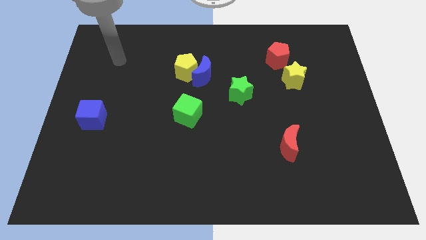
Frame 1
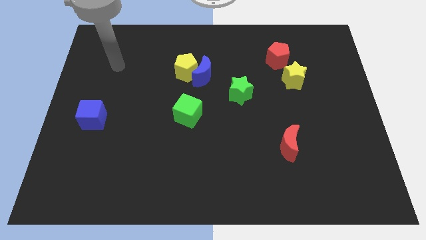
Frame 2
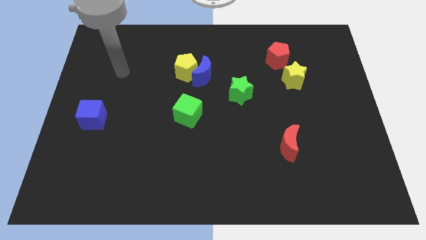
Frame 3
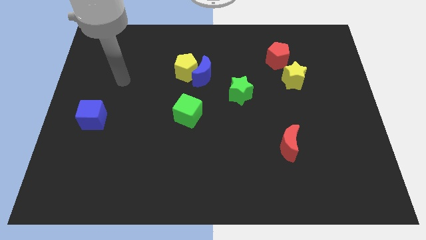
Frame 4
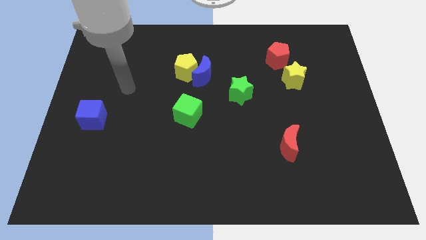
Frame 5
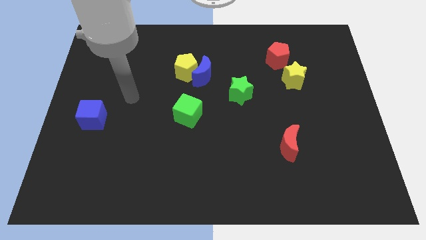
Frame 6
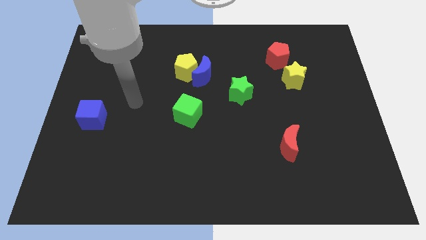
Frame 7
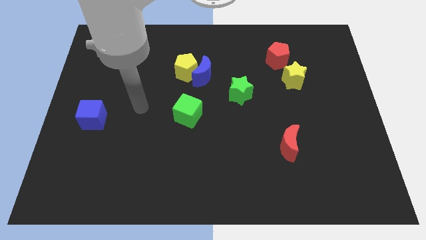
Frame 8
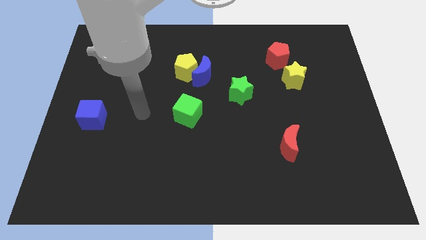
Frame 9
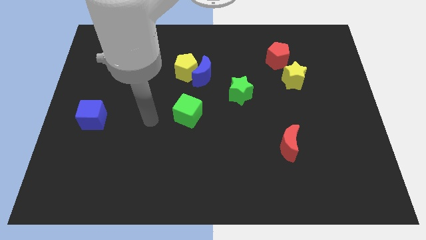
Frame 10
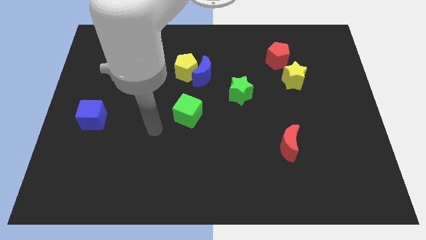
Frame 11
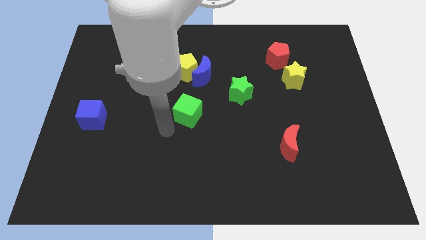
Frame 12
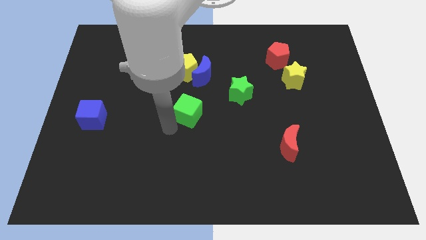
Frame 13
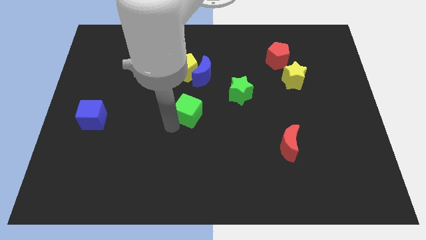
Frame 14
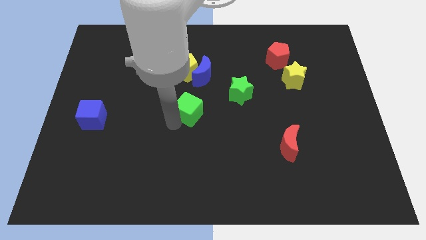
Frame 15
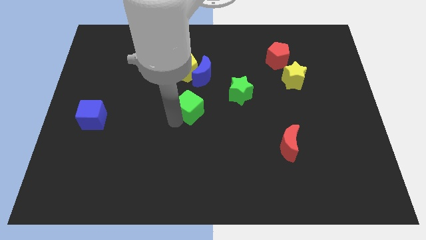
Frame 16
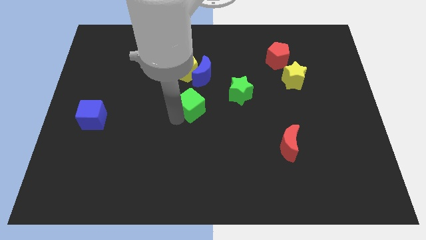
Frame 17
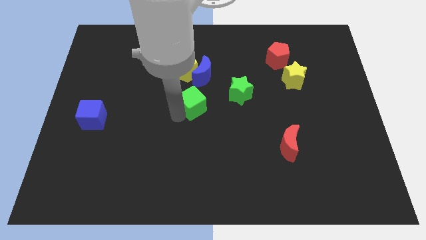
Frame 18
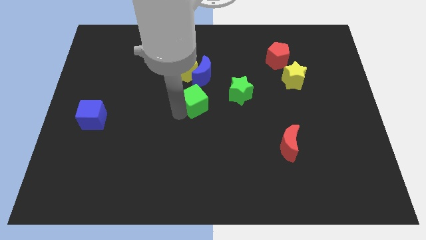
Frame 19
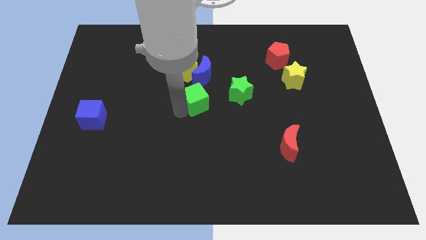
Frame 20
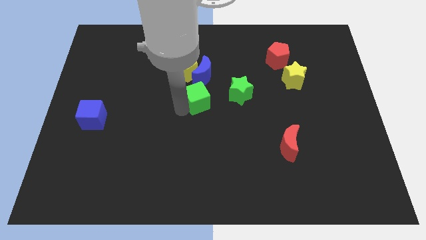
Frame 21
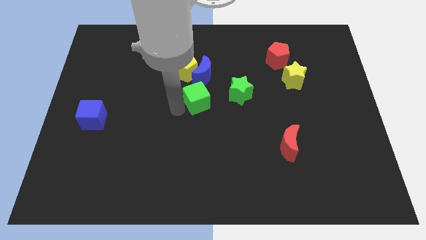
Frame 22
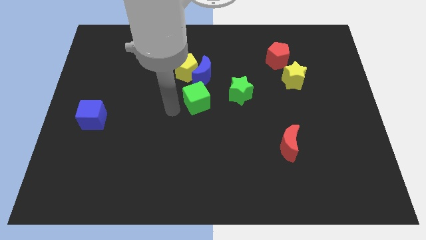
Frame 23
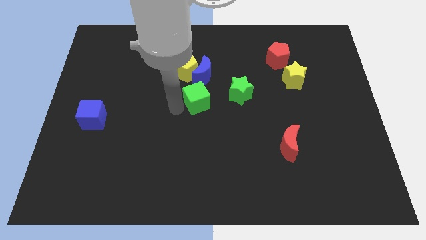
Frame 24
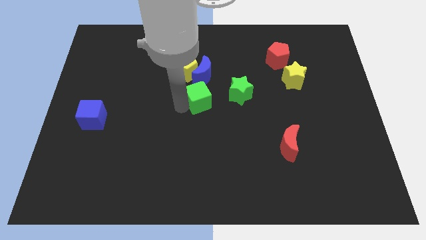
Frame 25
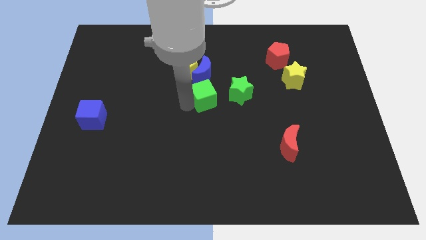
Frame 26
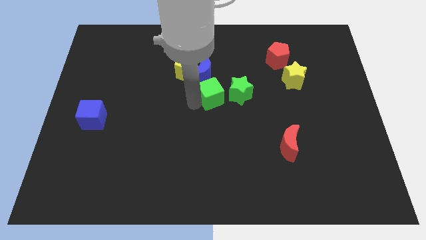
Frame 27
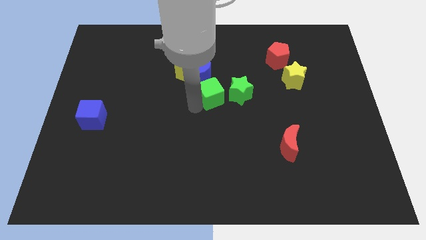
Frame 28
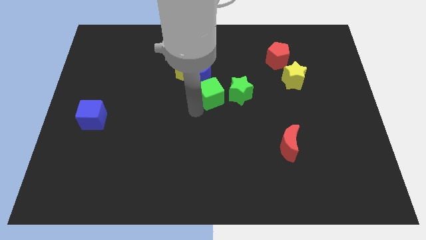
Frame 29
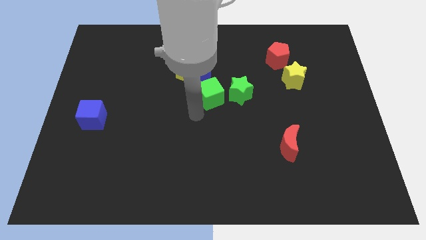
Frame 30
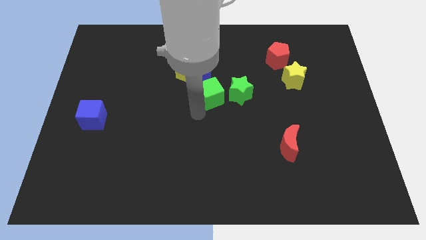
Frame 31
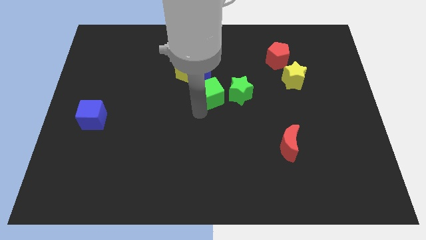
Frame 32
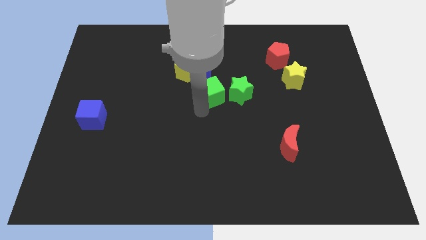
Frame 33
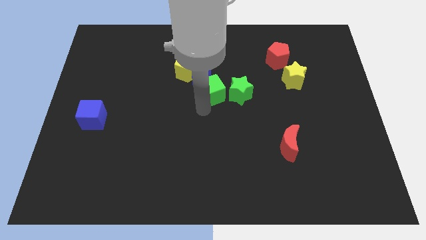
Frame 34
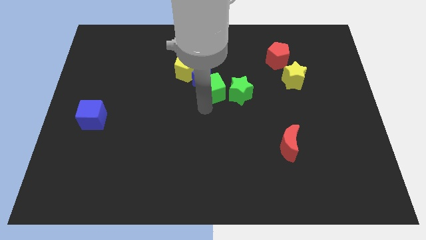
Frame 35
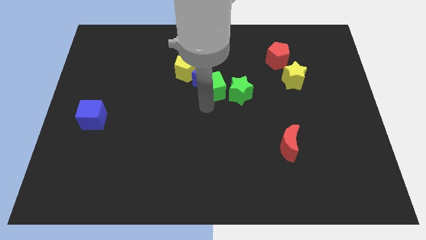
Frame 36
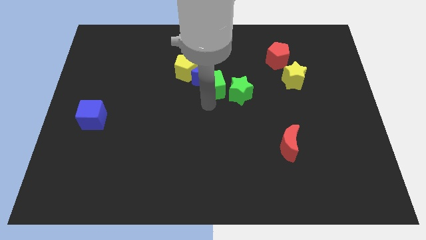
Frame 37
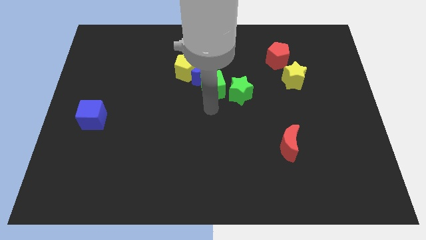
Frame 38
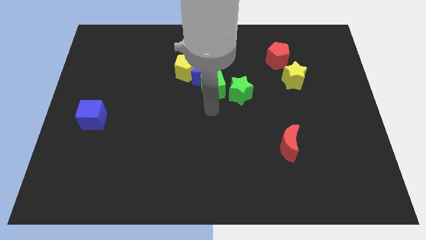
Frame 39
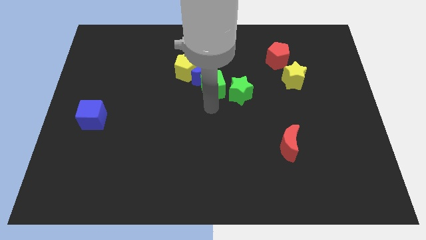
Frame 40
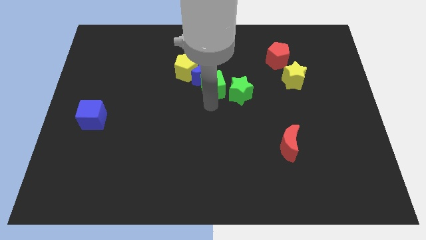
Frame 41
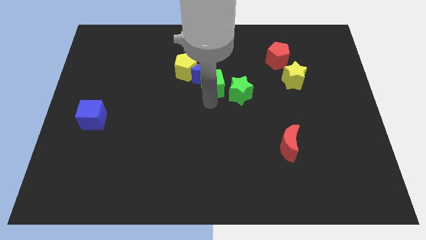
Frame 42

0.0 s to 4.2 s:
slide the green cube up slightly

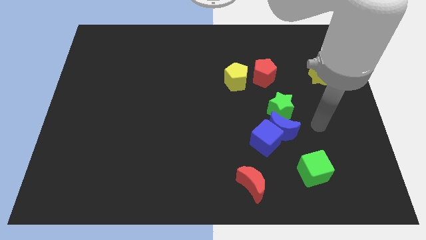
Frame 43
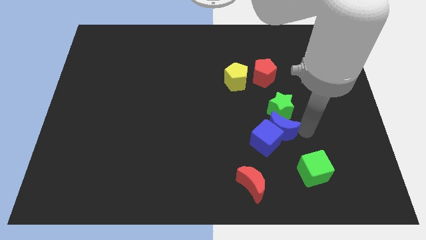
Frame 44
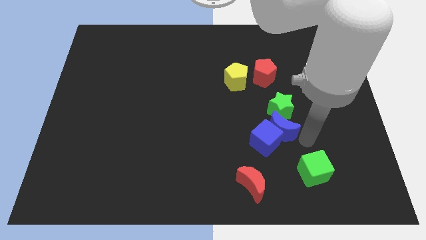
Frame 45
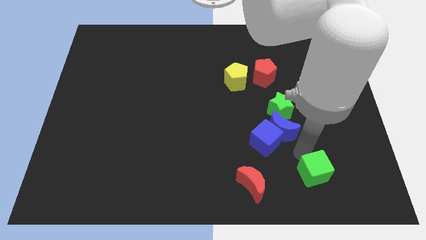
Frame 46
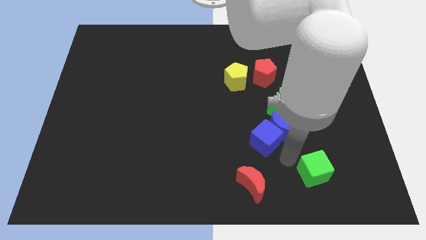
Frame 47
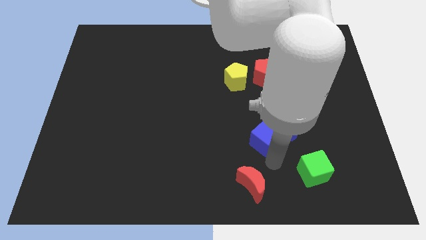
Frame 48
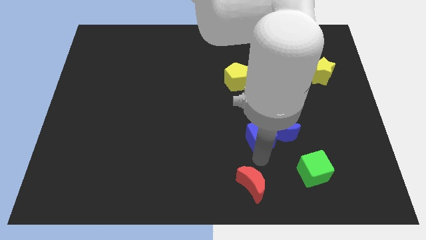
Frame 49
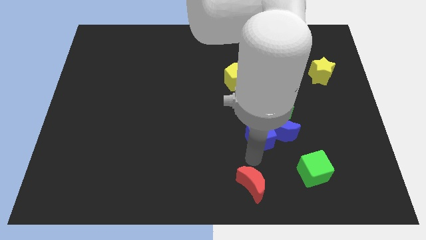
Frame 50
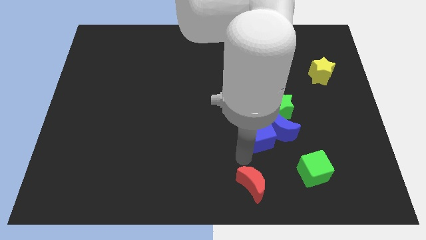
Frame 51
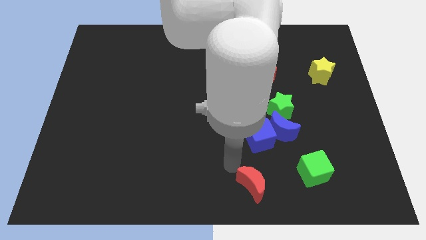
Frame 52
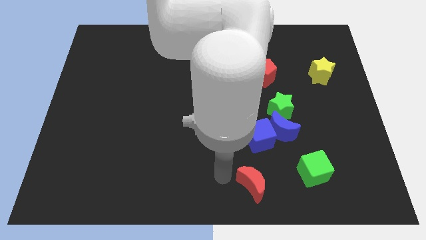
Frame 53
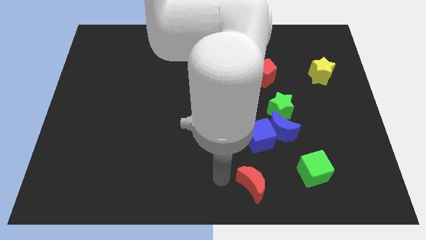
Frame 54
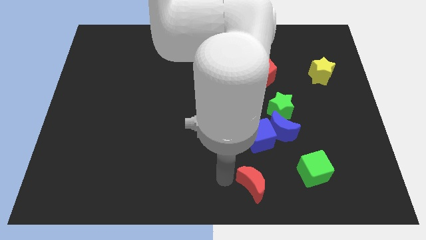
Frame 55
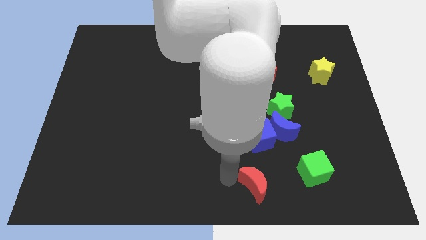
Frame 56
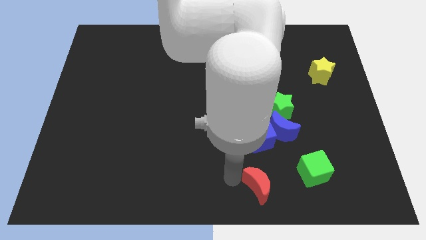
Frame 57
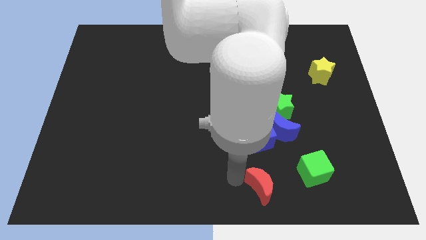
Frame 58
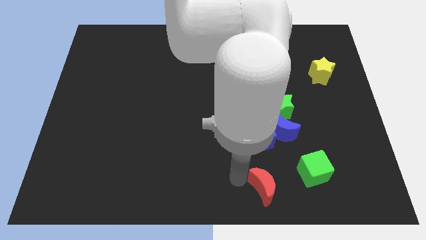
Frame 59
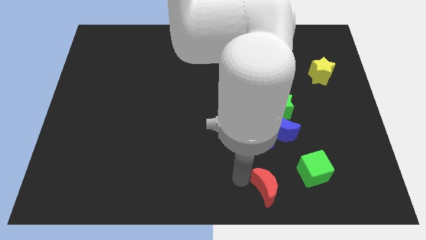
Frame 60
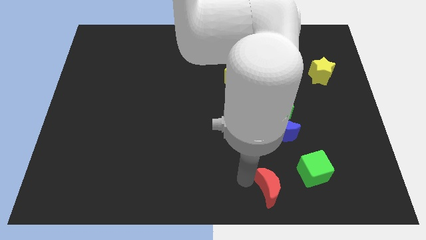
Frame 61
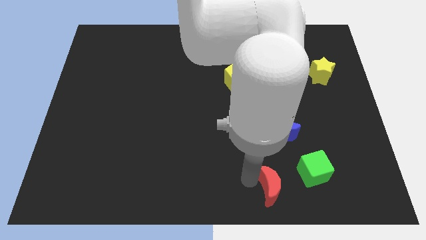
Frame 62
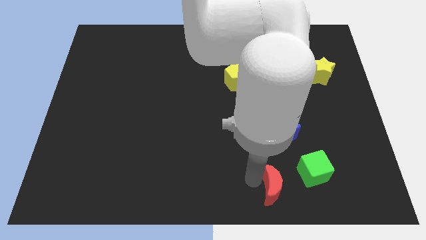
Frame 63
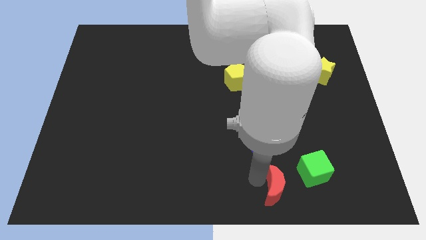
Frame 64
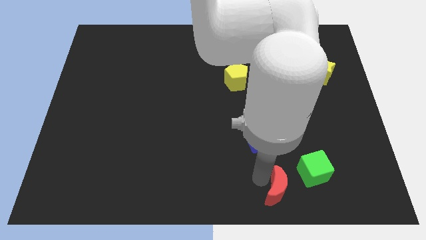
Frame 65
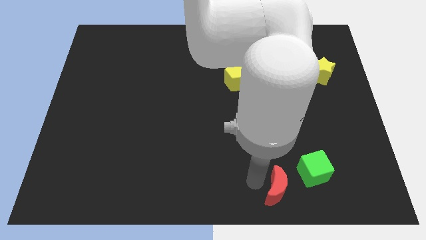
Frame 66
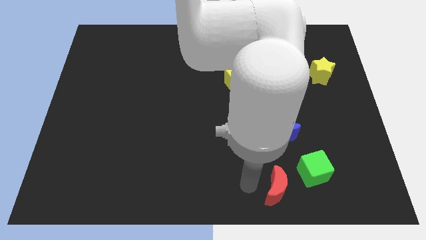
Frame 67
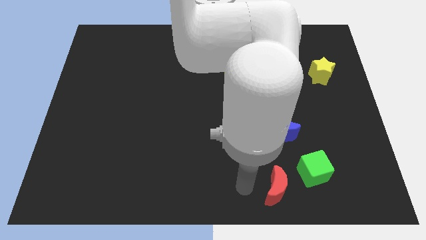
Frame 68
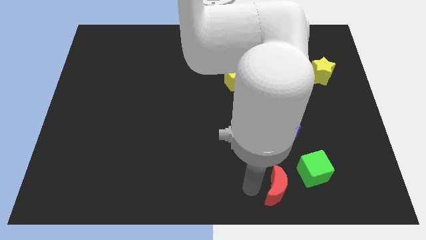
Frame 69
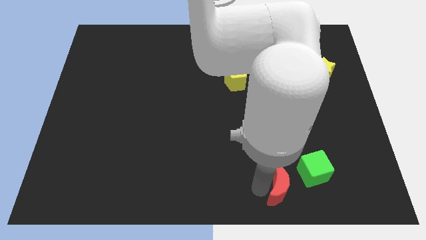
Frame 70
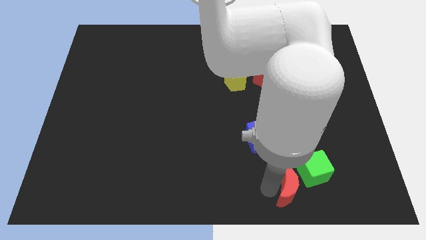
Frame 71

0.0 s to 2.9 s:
move the red moon to the right somewhat

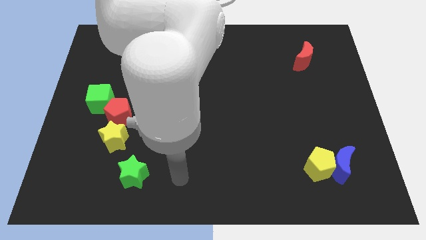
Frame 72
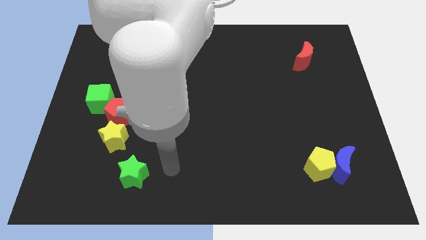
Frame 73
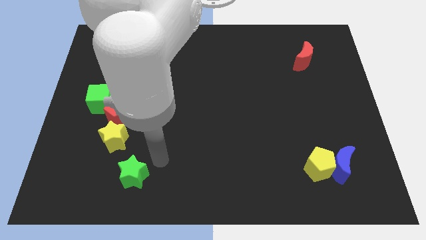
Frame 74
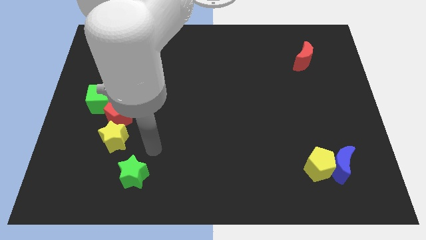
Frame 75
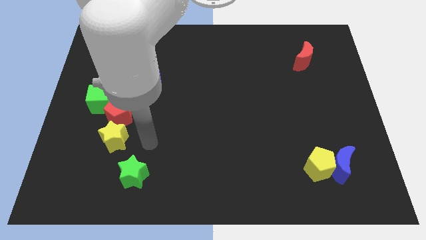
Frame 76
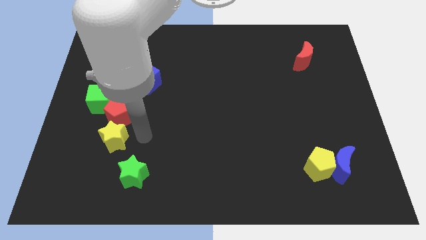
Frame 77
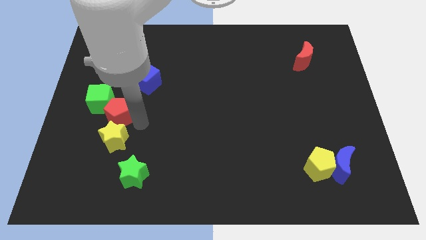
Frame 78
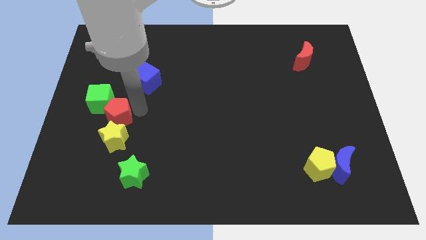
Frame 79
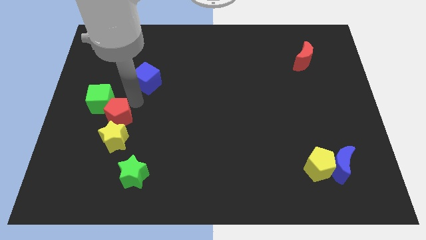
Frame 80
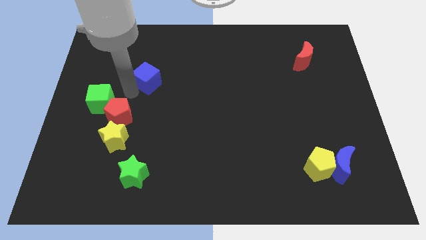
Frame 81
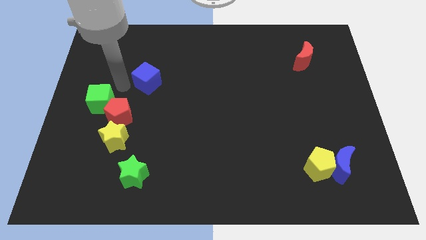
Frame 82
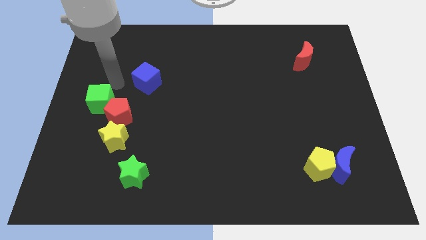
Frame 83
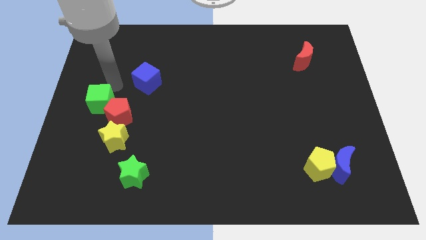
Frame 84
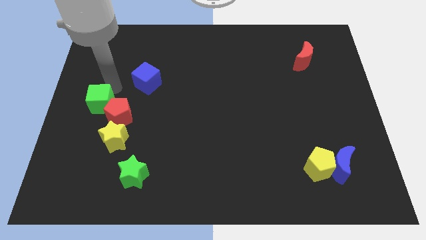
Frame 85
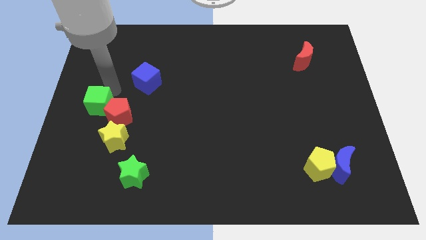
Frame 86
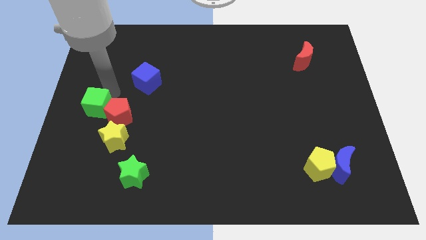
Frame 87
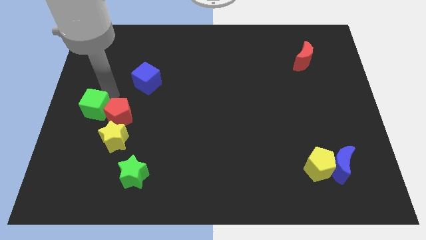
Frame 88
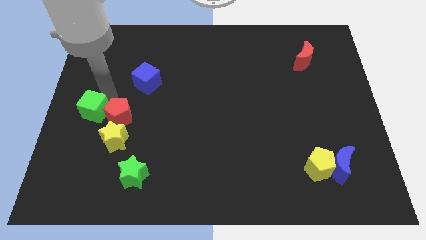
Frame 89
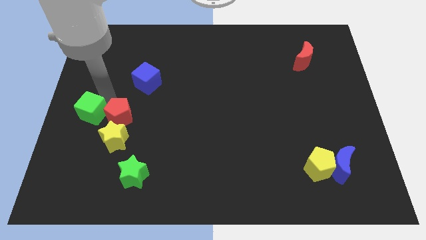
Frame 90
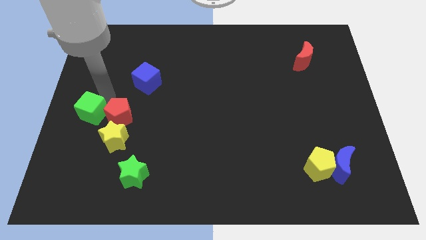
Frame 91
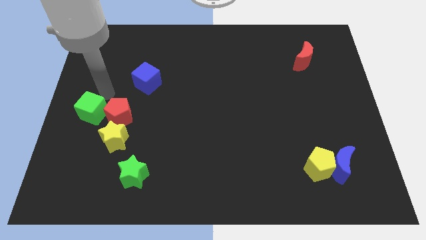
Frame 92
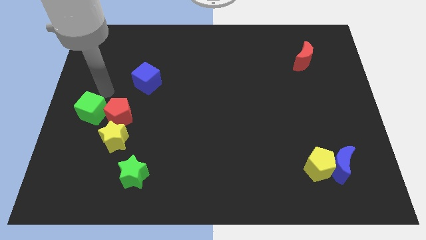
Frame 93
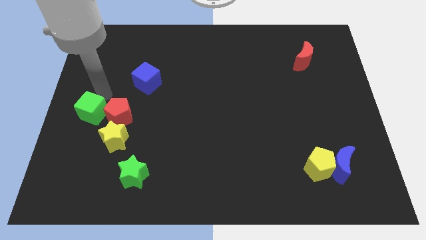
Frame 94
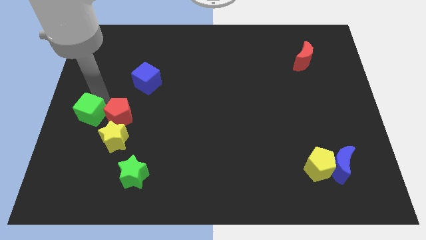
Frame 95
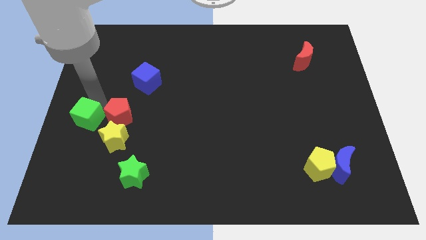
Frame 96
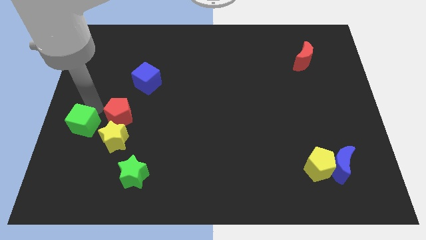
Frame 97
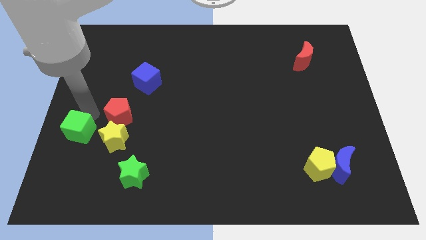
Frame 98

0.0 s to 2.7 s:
move the green cube somewhat downwards
